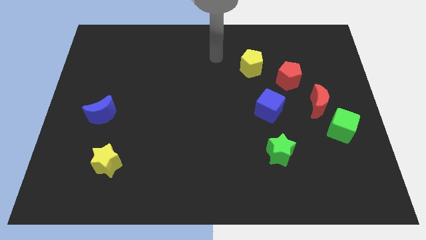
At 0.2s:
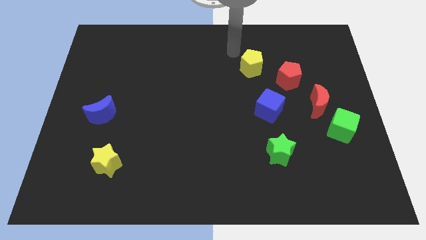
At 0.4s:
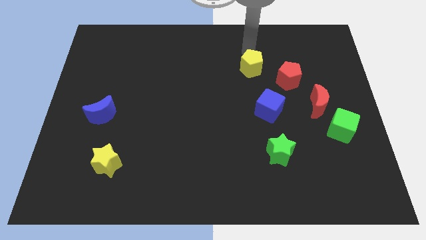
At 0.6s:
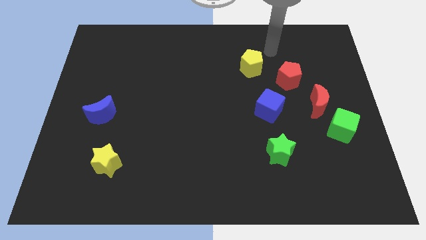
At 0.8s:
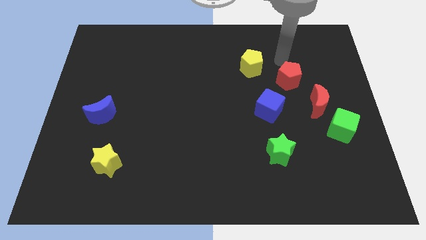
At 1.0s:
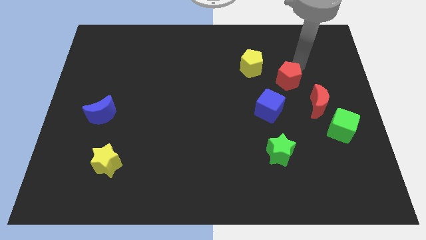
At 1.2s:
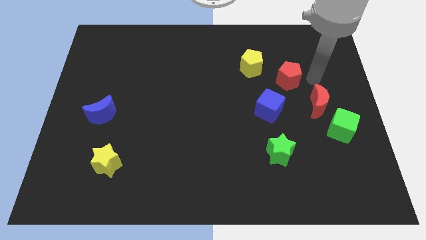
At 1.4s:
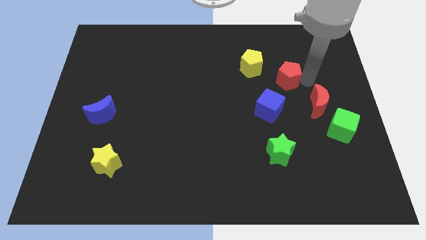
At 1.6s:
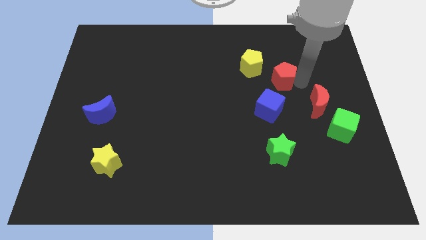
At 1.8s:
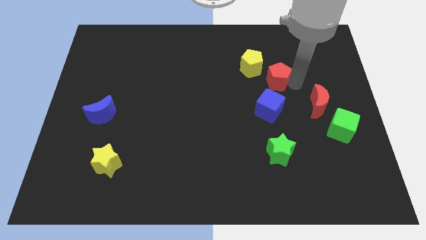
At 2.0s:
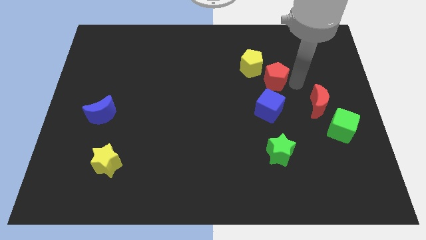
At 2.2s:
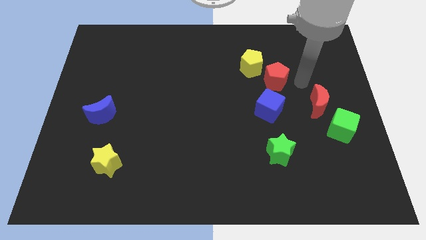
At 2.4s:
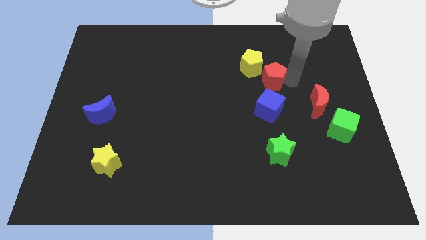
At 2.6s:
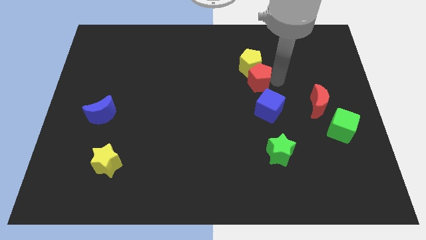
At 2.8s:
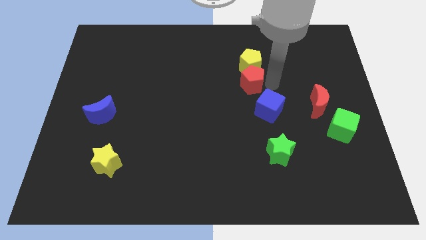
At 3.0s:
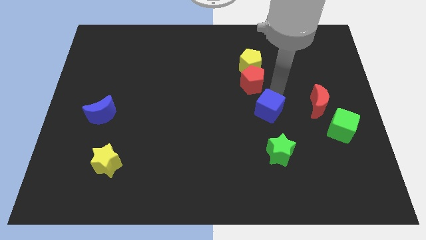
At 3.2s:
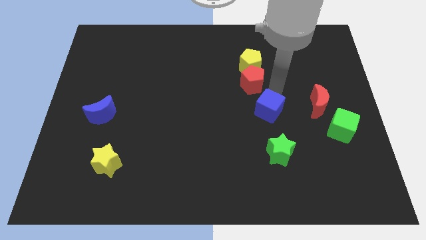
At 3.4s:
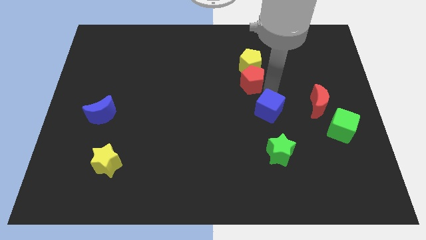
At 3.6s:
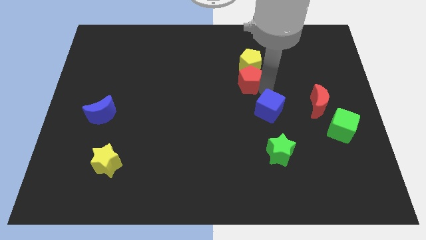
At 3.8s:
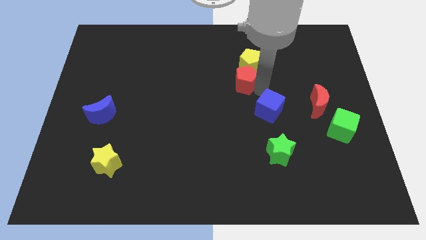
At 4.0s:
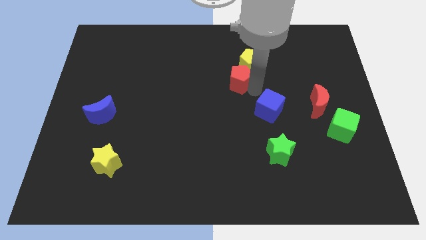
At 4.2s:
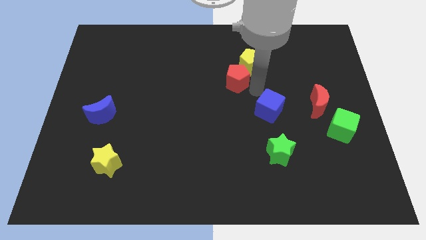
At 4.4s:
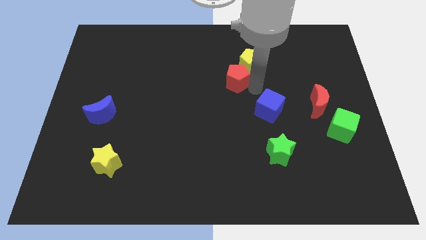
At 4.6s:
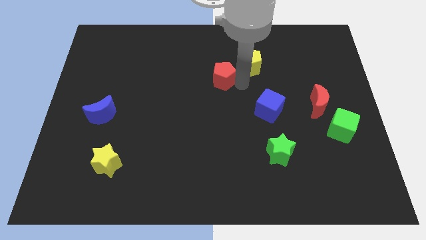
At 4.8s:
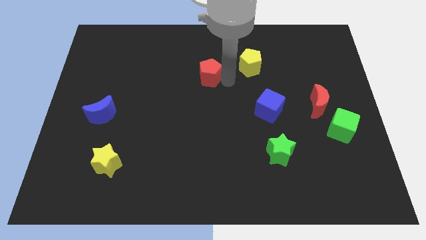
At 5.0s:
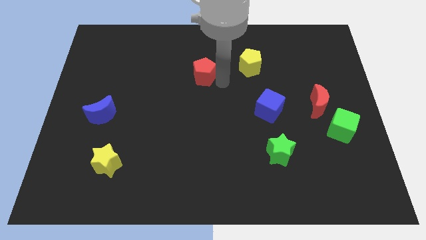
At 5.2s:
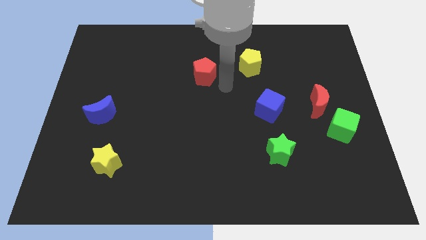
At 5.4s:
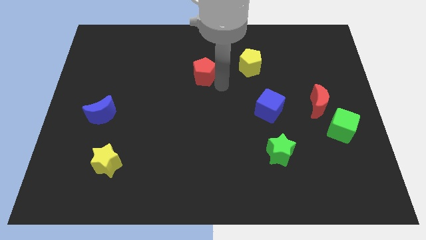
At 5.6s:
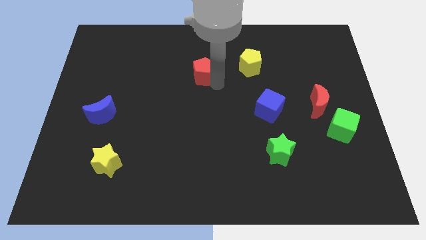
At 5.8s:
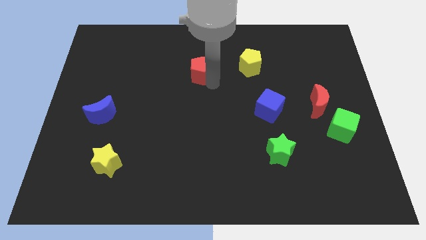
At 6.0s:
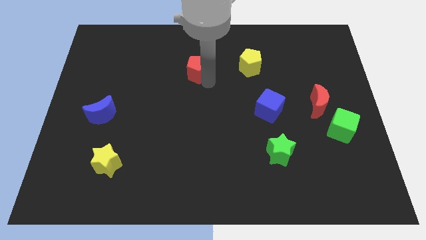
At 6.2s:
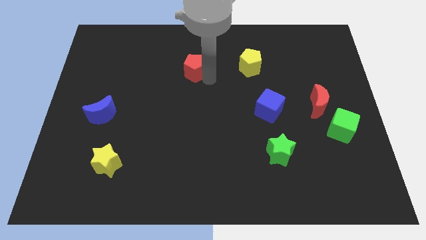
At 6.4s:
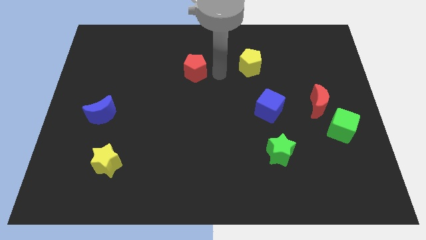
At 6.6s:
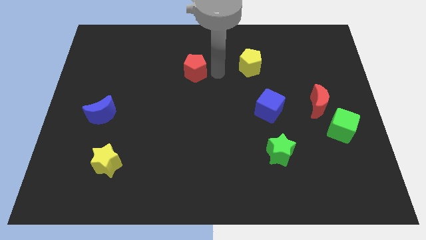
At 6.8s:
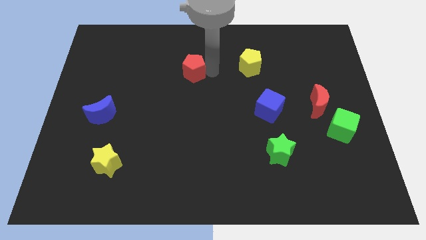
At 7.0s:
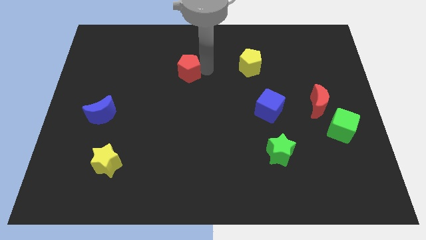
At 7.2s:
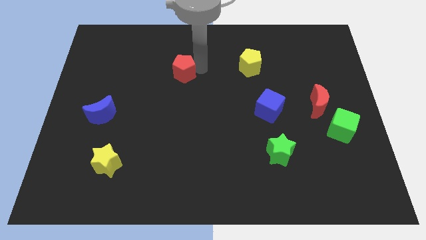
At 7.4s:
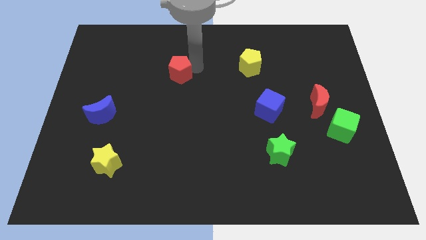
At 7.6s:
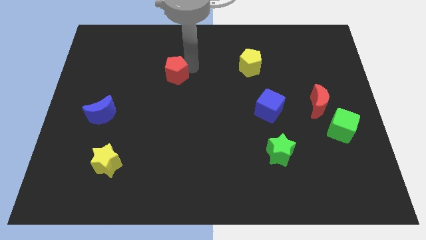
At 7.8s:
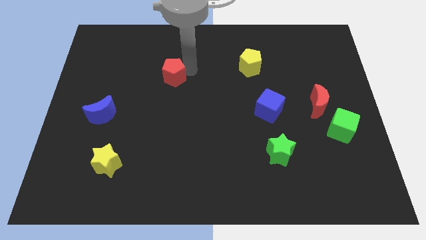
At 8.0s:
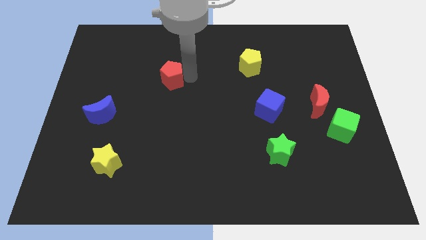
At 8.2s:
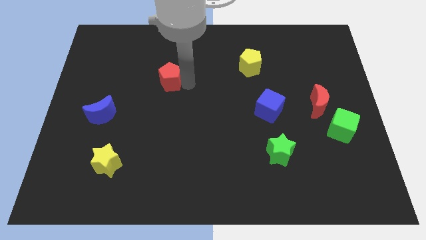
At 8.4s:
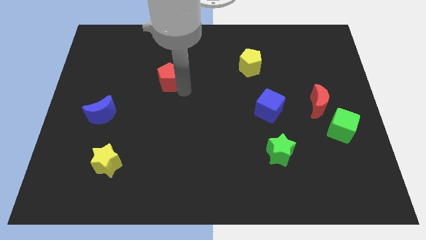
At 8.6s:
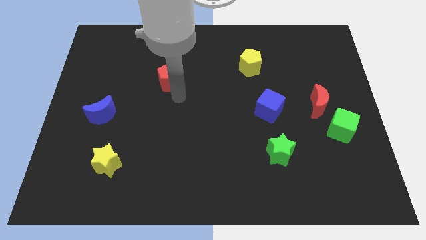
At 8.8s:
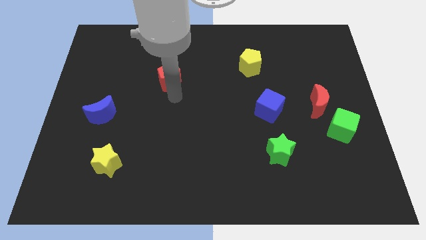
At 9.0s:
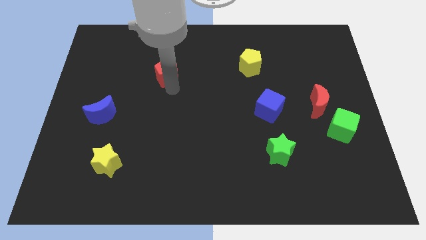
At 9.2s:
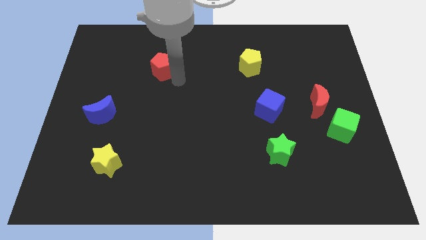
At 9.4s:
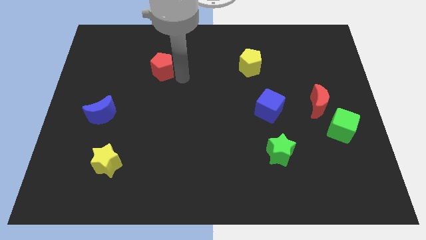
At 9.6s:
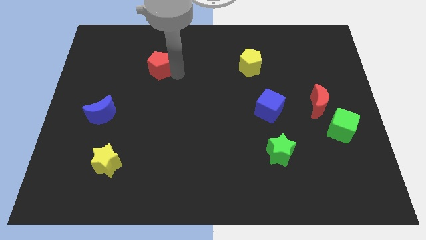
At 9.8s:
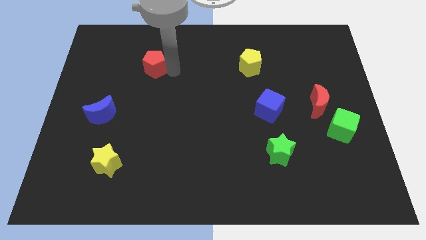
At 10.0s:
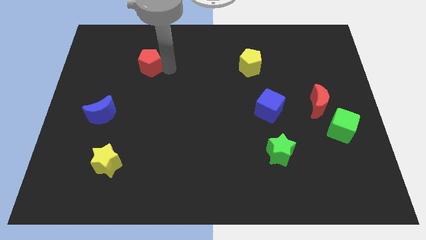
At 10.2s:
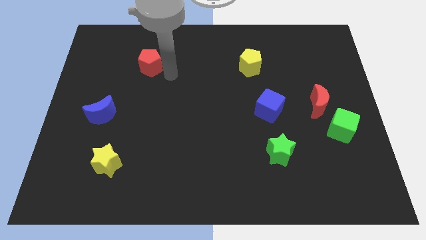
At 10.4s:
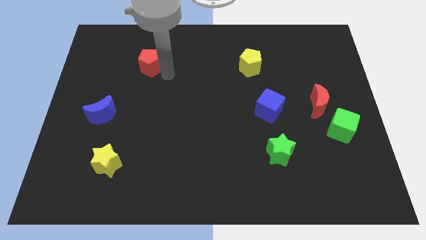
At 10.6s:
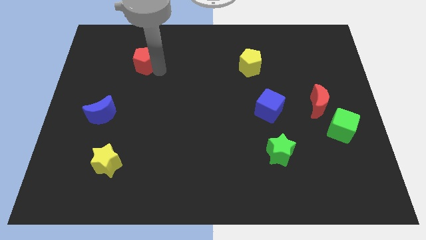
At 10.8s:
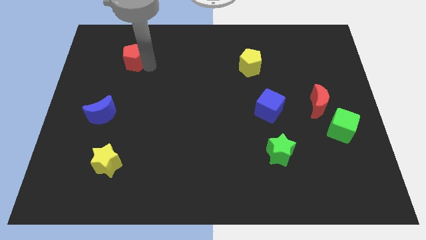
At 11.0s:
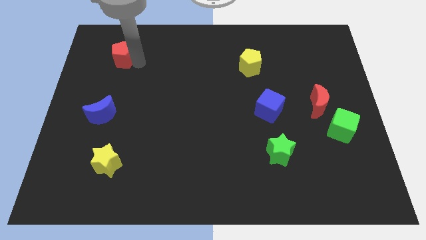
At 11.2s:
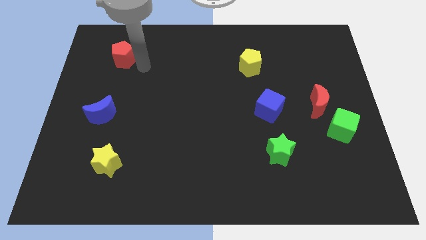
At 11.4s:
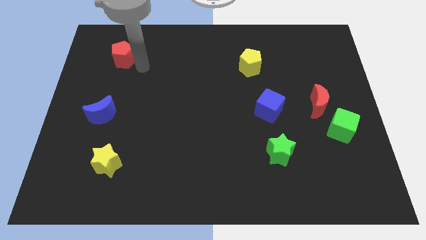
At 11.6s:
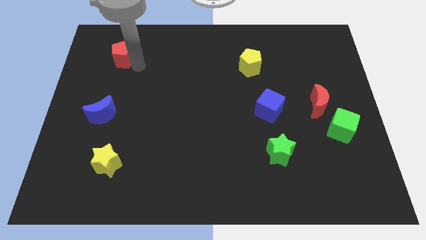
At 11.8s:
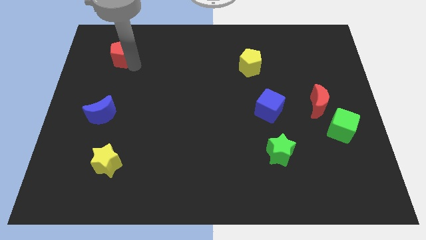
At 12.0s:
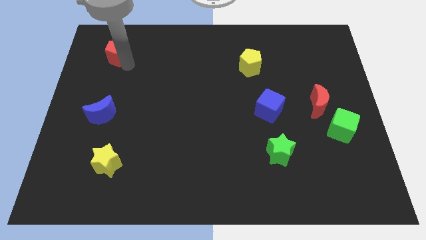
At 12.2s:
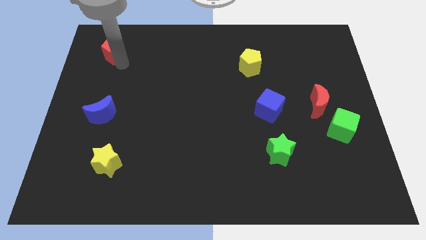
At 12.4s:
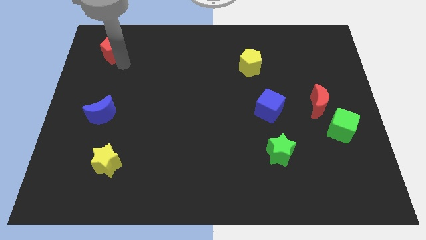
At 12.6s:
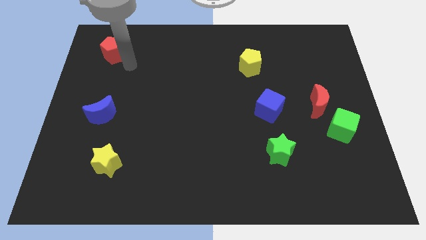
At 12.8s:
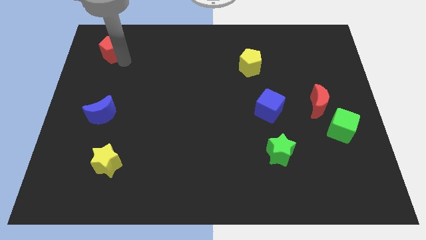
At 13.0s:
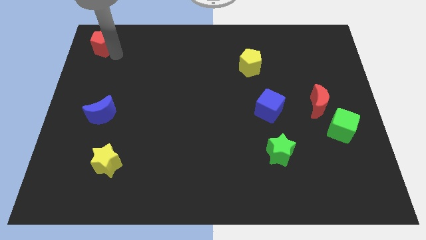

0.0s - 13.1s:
slide the red pentagon to the upper left corner
